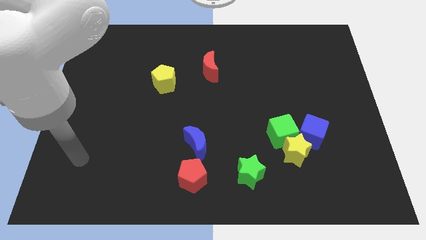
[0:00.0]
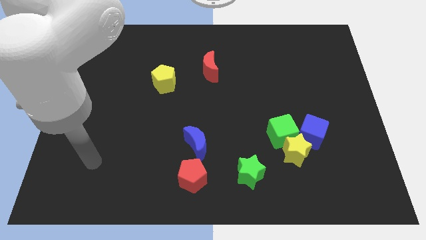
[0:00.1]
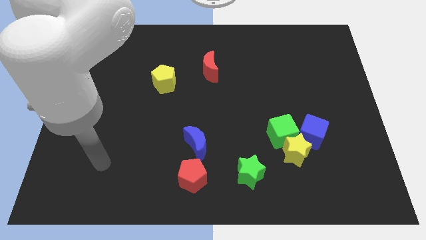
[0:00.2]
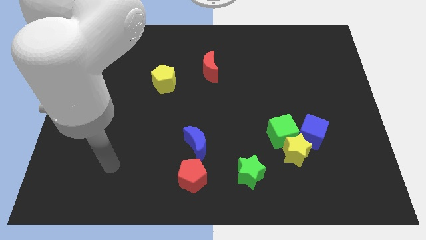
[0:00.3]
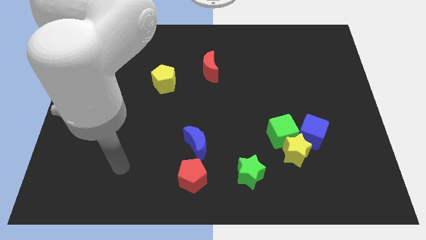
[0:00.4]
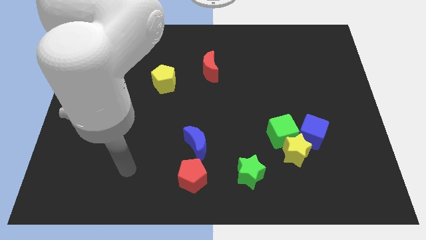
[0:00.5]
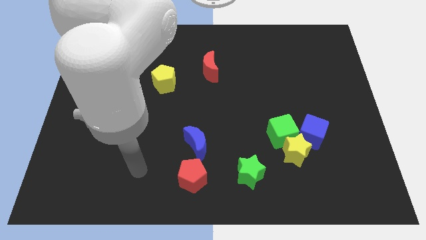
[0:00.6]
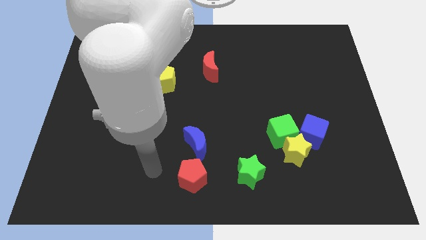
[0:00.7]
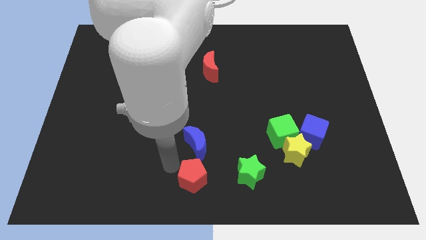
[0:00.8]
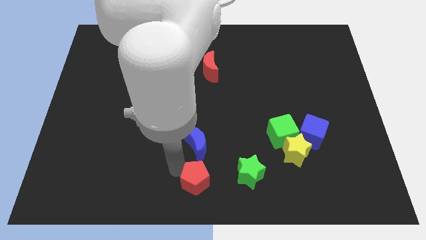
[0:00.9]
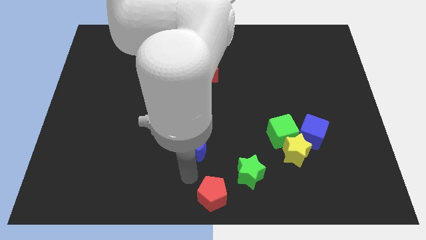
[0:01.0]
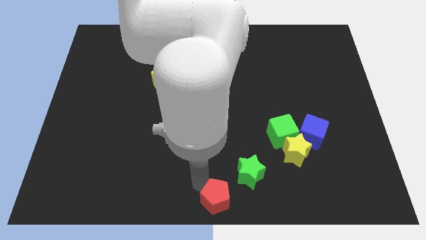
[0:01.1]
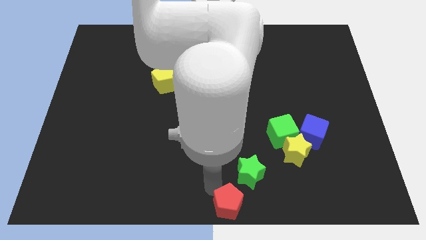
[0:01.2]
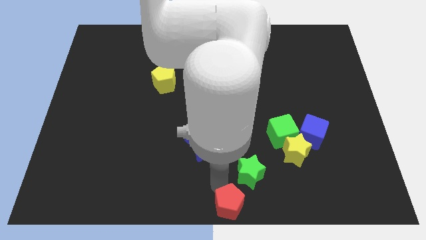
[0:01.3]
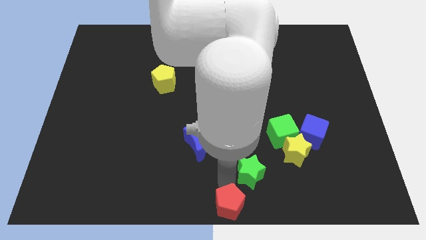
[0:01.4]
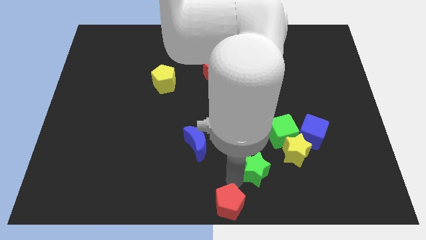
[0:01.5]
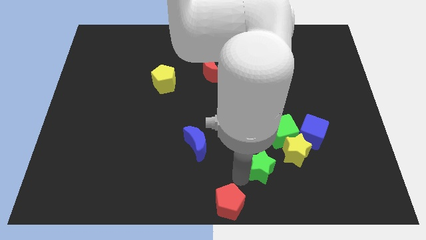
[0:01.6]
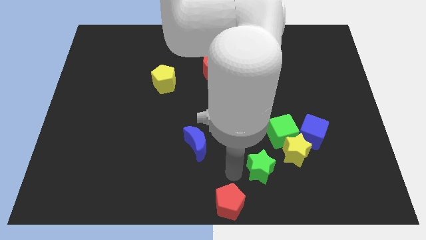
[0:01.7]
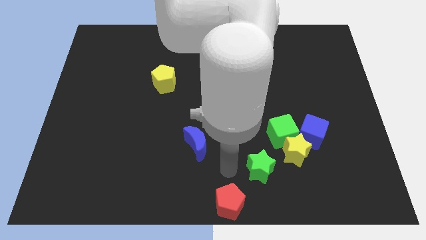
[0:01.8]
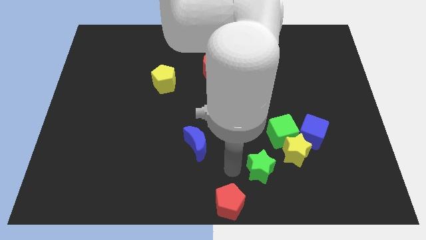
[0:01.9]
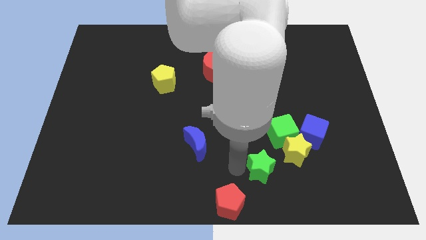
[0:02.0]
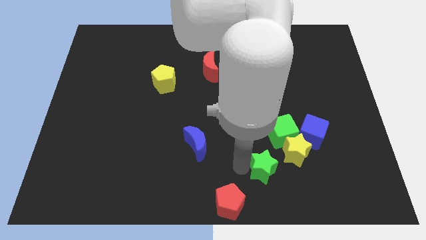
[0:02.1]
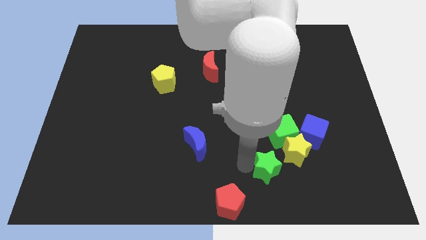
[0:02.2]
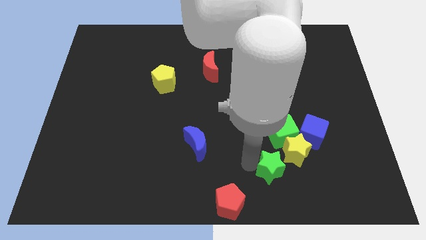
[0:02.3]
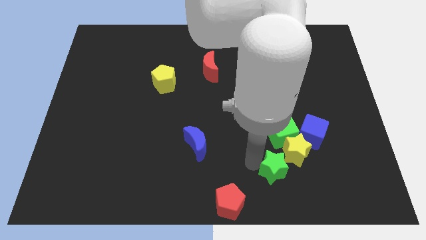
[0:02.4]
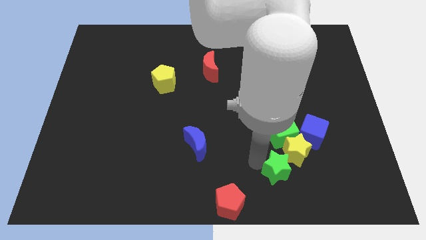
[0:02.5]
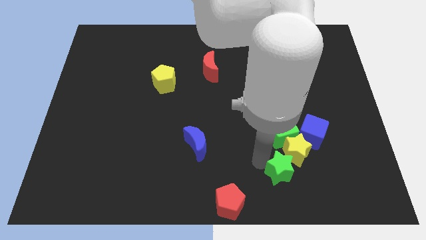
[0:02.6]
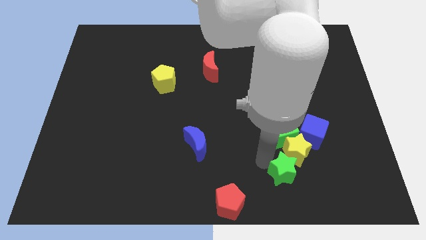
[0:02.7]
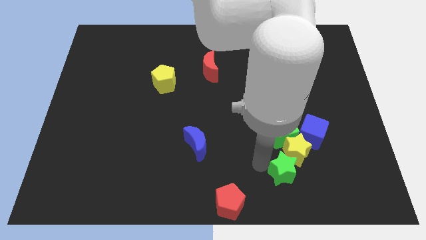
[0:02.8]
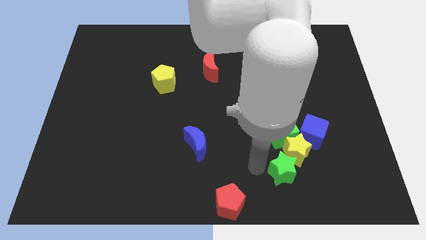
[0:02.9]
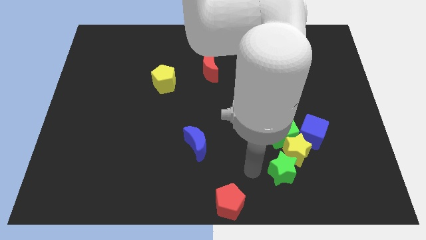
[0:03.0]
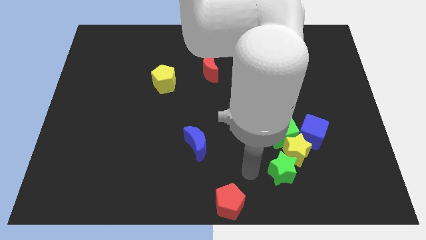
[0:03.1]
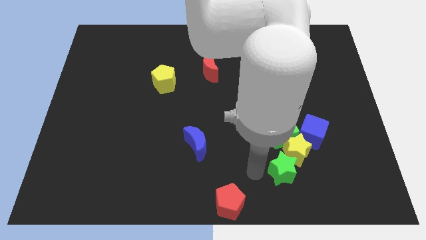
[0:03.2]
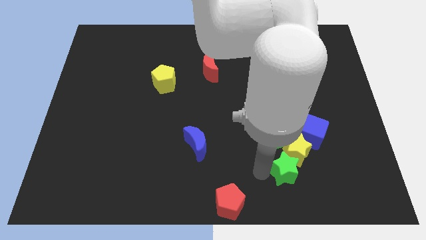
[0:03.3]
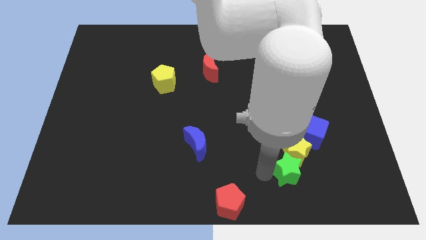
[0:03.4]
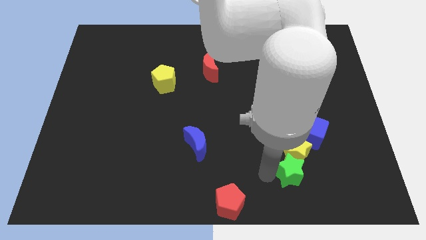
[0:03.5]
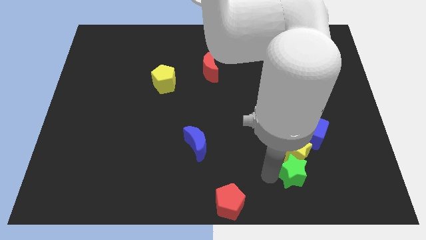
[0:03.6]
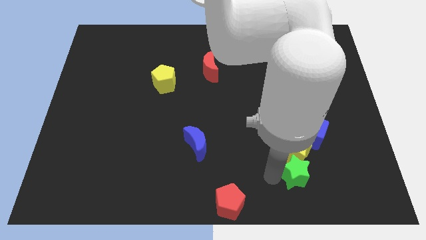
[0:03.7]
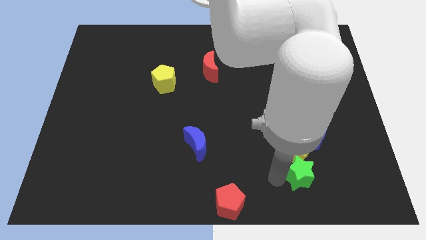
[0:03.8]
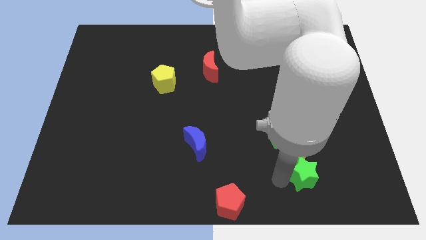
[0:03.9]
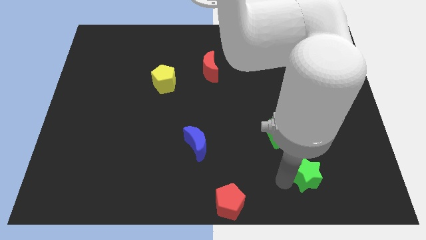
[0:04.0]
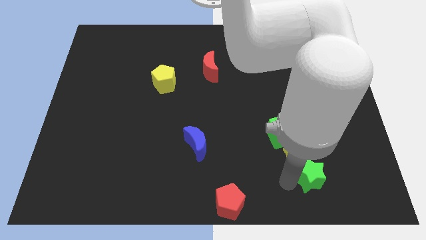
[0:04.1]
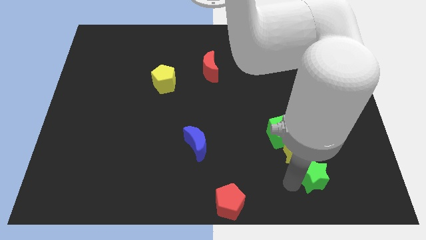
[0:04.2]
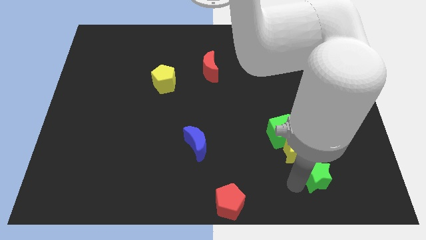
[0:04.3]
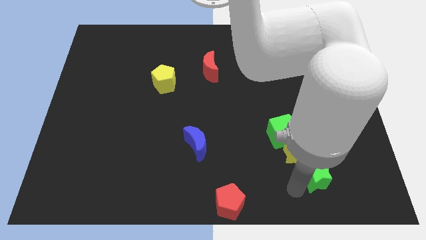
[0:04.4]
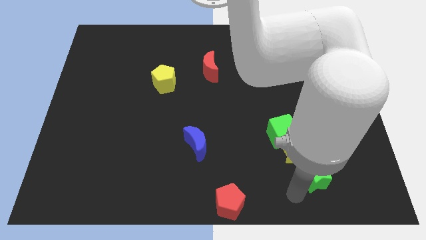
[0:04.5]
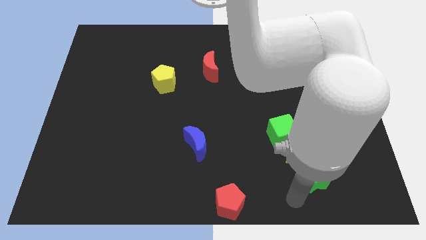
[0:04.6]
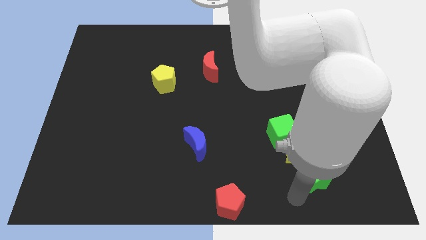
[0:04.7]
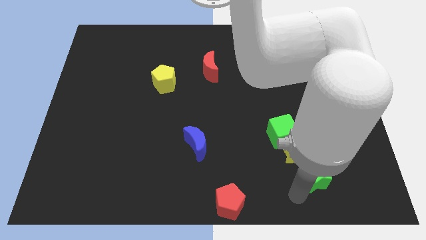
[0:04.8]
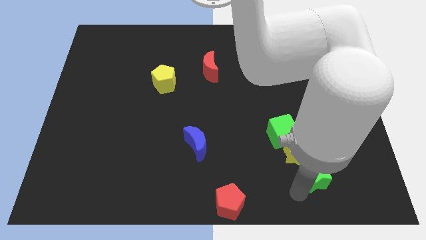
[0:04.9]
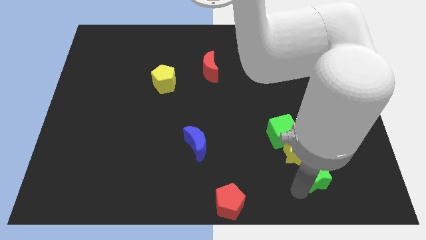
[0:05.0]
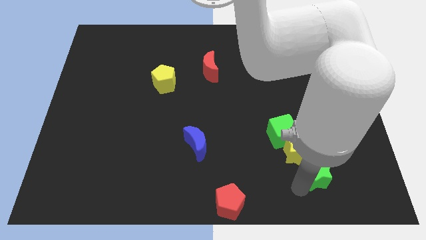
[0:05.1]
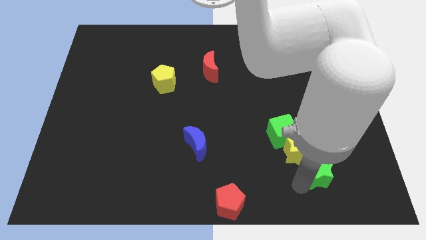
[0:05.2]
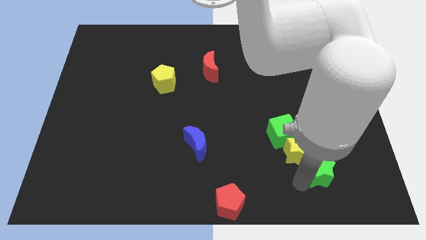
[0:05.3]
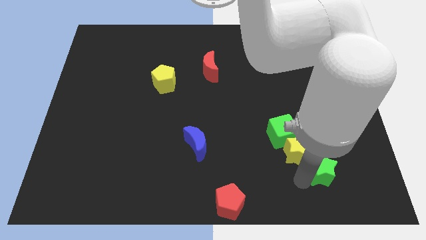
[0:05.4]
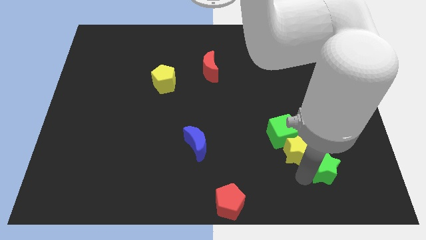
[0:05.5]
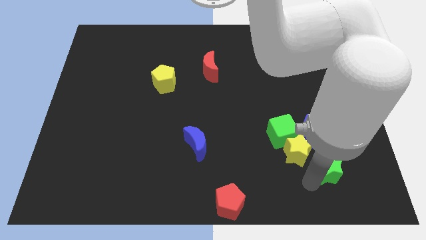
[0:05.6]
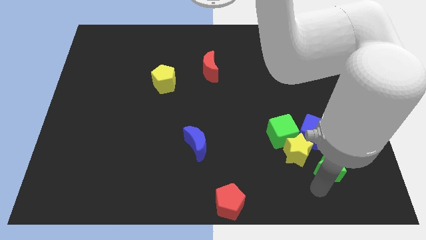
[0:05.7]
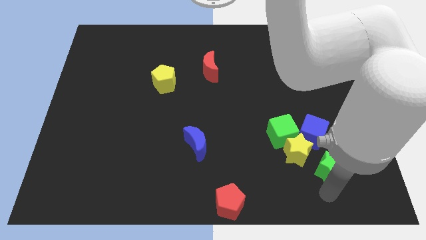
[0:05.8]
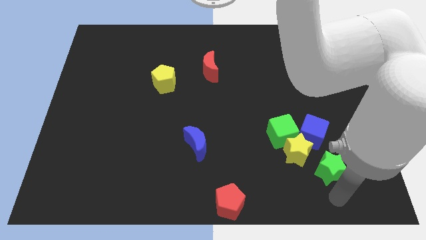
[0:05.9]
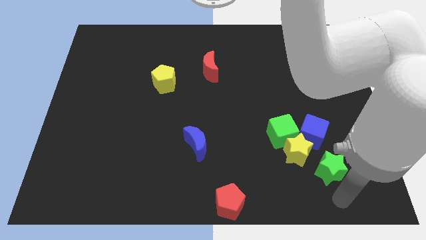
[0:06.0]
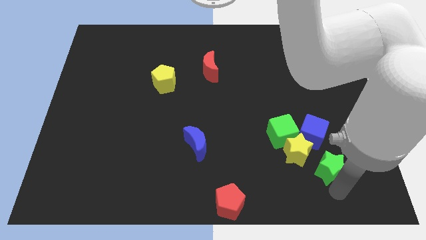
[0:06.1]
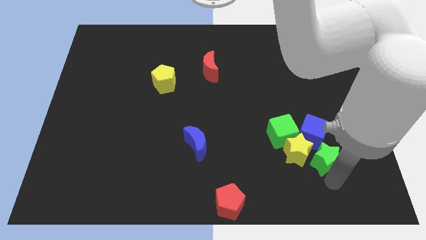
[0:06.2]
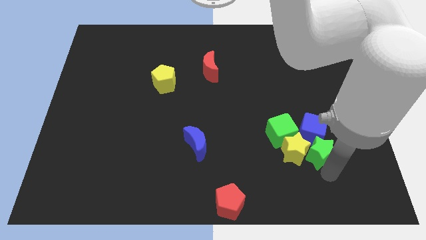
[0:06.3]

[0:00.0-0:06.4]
slide the green star next to the blue cube

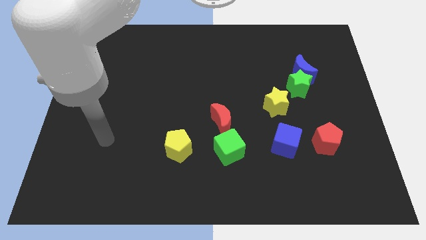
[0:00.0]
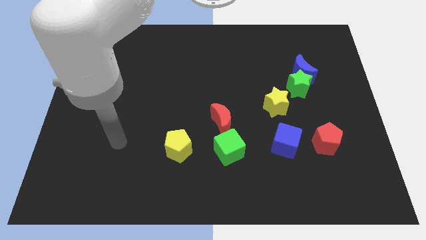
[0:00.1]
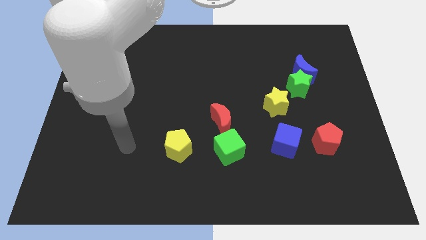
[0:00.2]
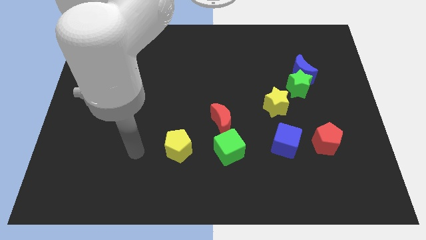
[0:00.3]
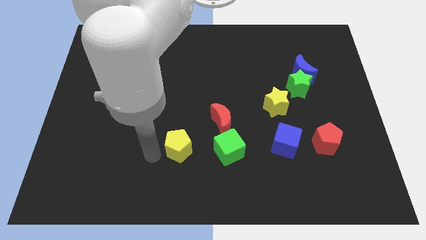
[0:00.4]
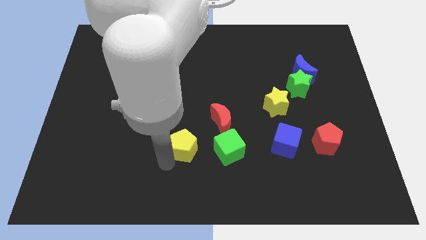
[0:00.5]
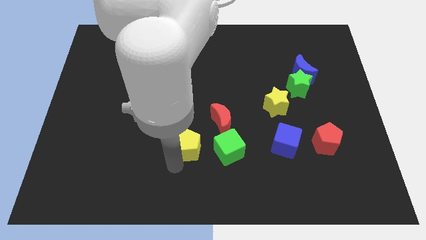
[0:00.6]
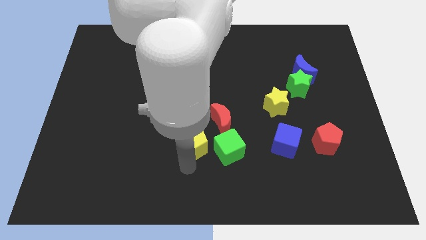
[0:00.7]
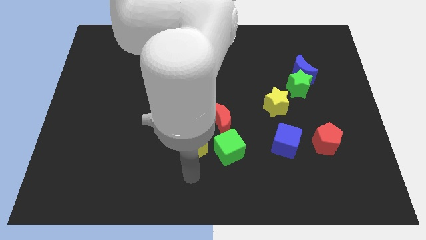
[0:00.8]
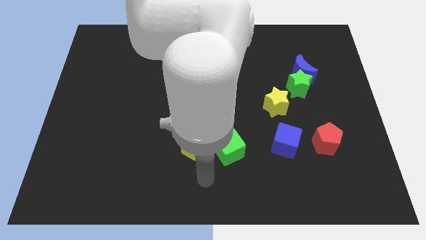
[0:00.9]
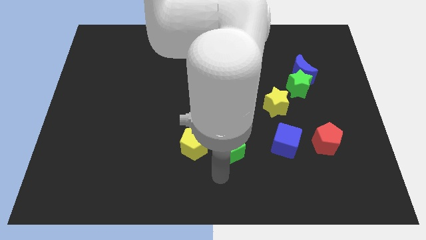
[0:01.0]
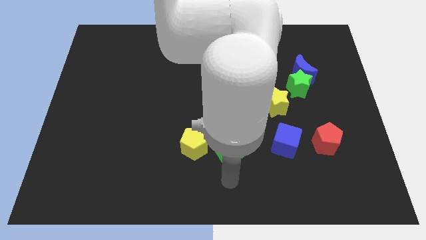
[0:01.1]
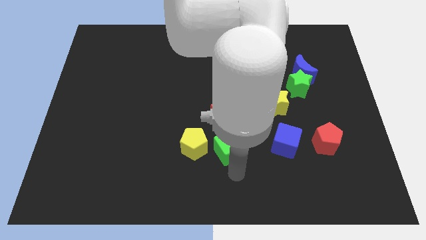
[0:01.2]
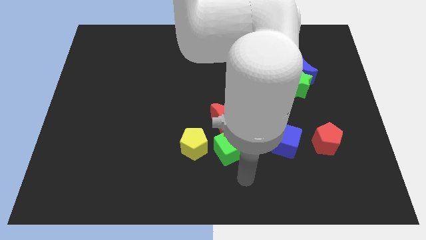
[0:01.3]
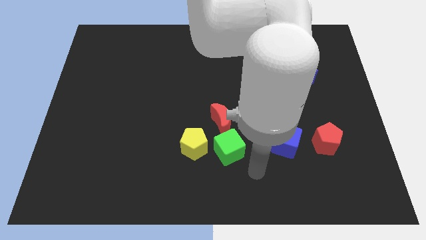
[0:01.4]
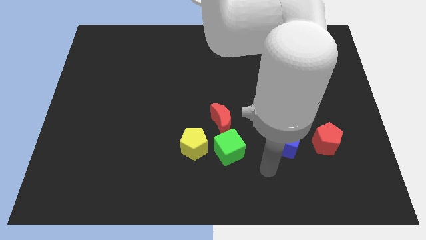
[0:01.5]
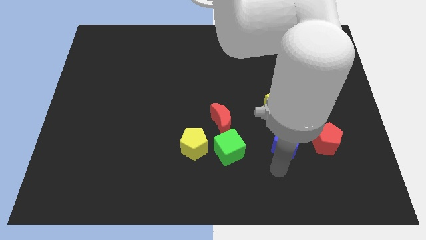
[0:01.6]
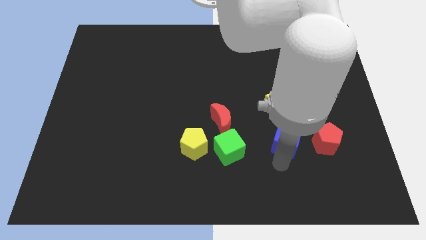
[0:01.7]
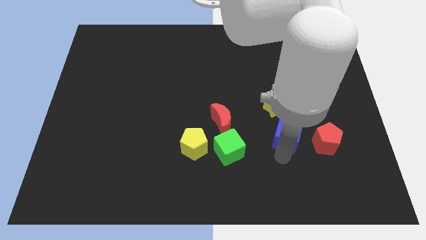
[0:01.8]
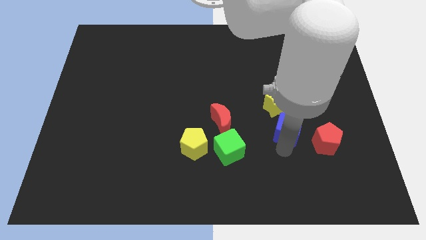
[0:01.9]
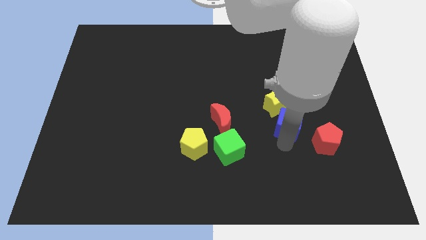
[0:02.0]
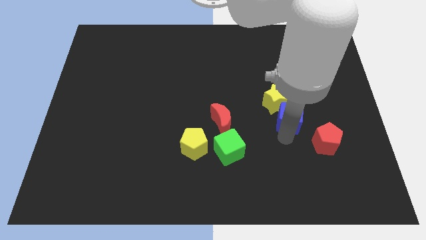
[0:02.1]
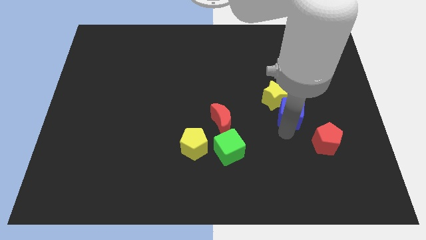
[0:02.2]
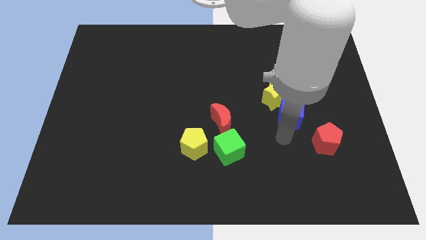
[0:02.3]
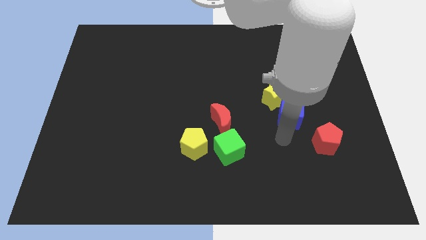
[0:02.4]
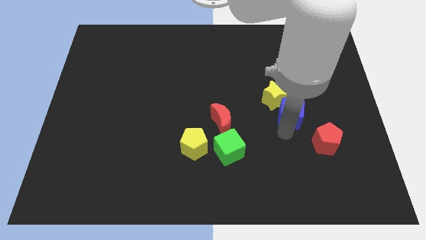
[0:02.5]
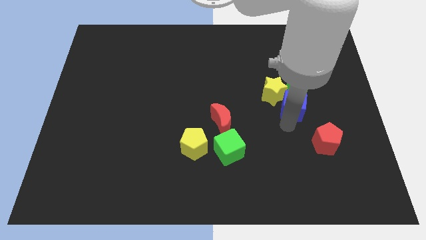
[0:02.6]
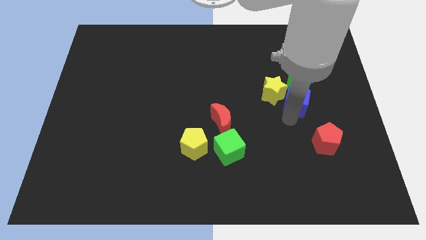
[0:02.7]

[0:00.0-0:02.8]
move the blue cube close to the green star
